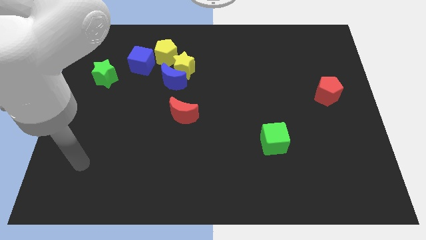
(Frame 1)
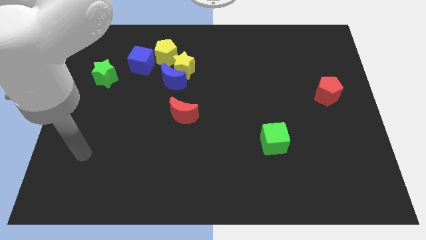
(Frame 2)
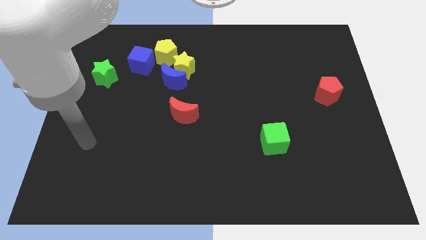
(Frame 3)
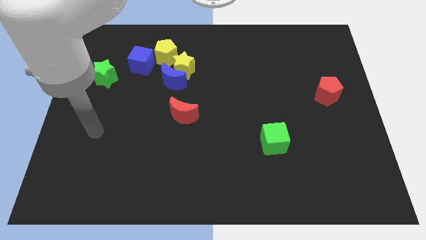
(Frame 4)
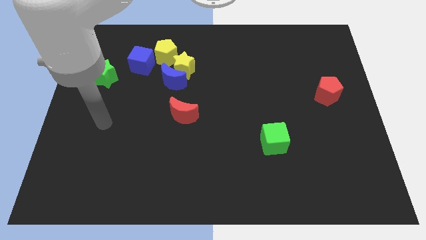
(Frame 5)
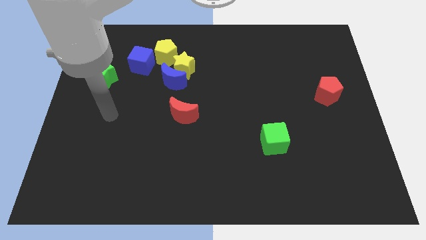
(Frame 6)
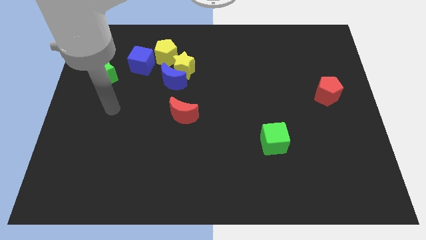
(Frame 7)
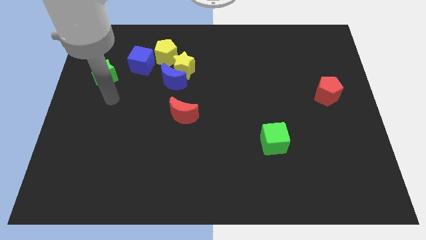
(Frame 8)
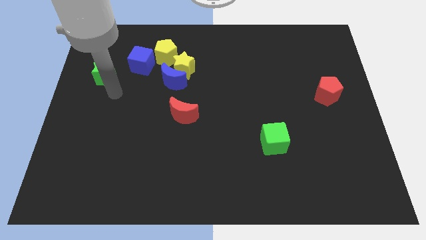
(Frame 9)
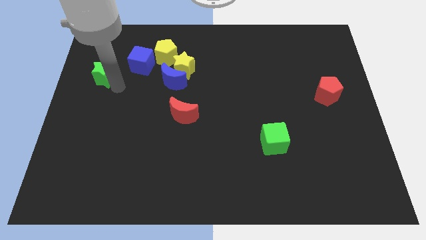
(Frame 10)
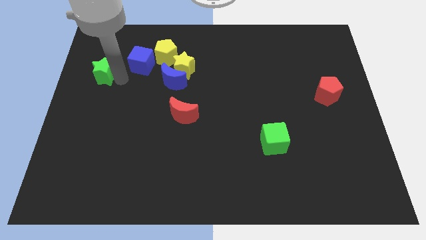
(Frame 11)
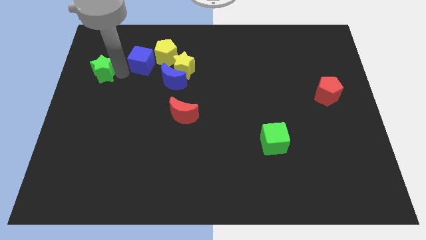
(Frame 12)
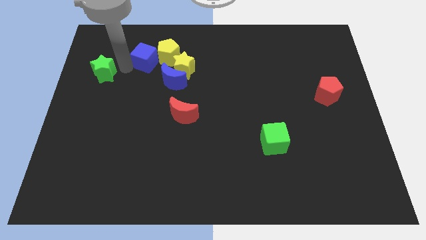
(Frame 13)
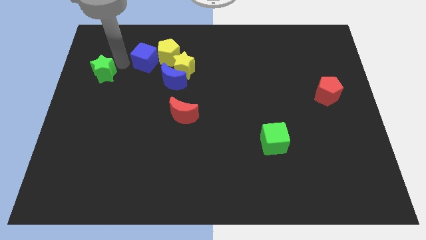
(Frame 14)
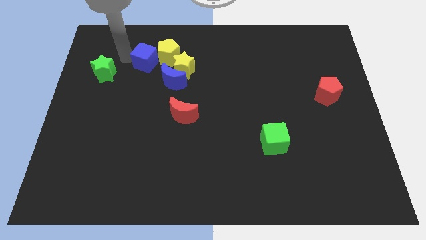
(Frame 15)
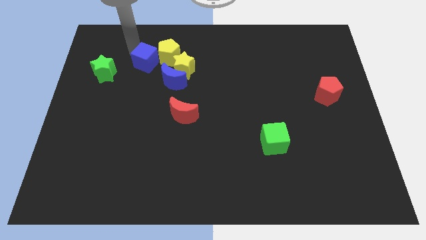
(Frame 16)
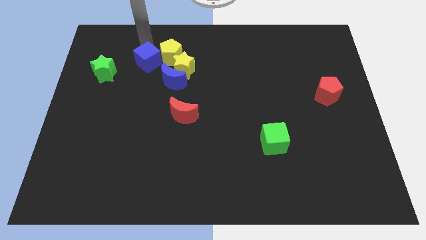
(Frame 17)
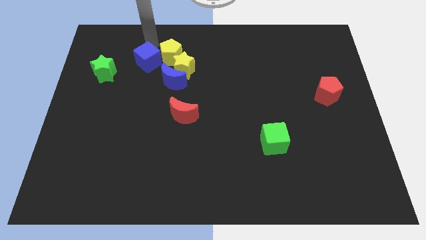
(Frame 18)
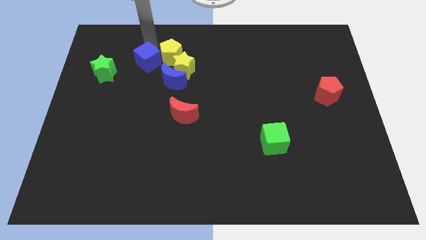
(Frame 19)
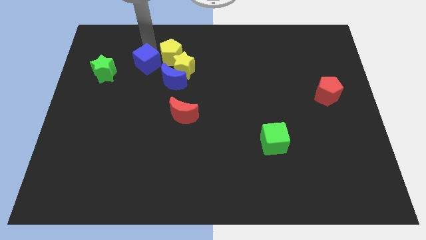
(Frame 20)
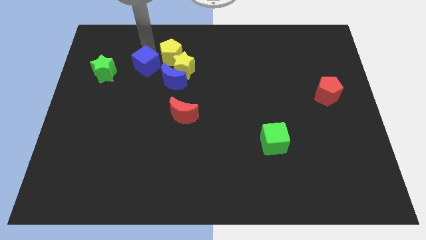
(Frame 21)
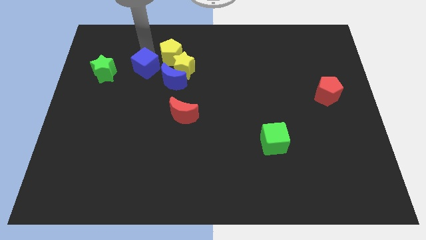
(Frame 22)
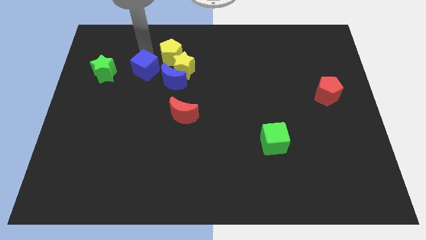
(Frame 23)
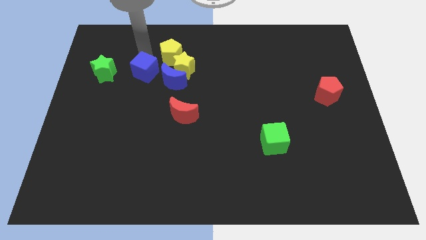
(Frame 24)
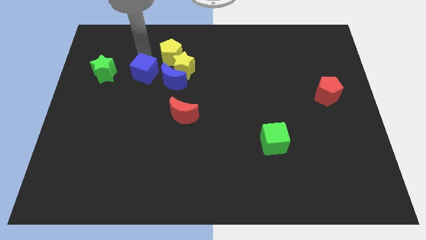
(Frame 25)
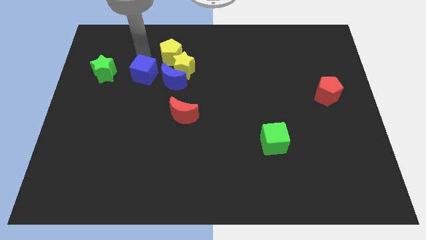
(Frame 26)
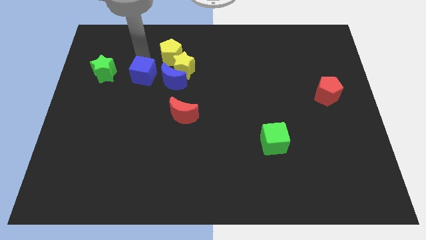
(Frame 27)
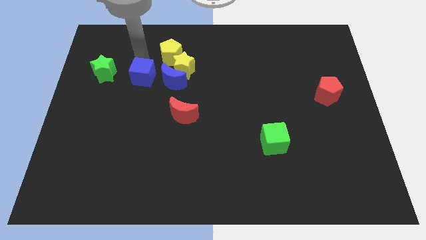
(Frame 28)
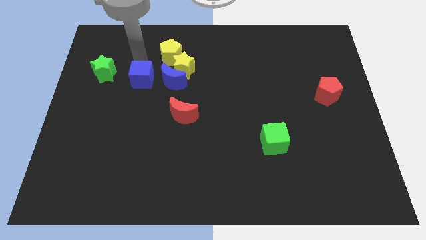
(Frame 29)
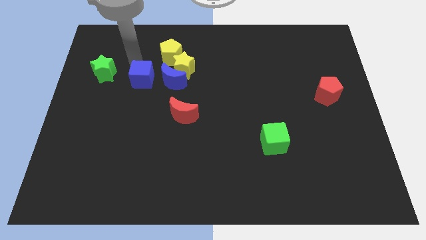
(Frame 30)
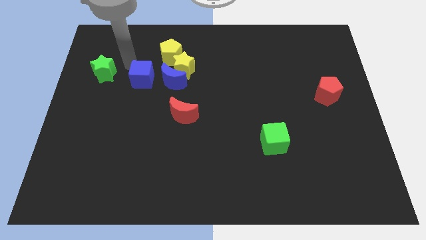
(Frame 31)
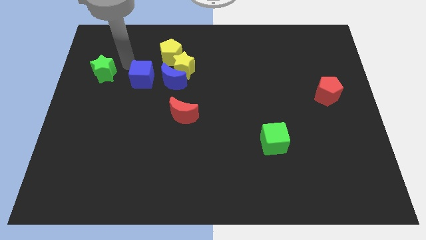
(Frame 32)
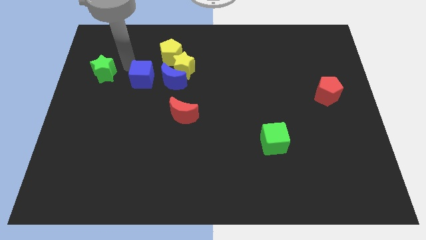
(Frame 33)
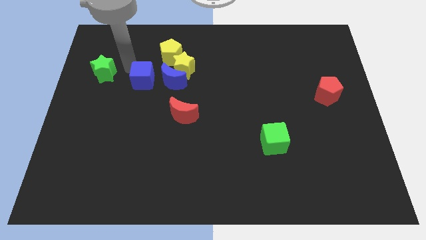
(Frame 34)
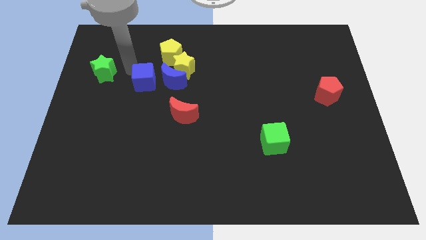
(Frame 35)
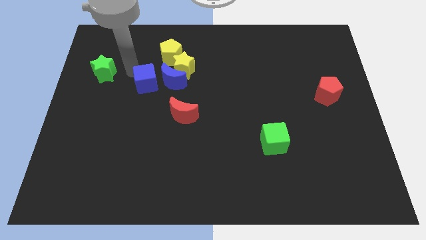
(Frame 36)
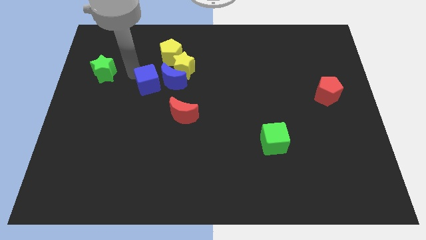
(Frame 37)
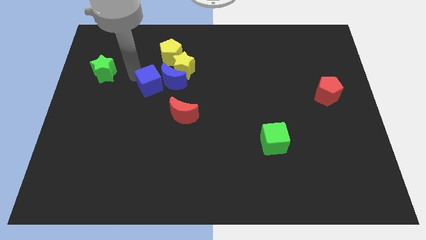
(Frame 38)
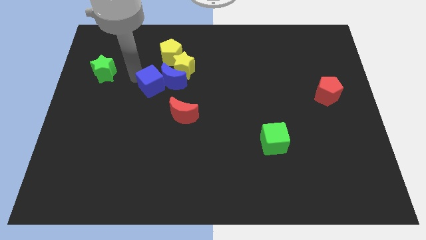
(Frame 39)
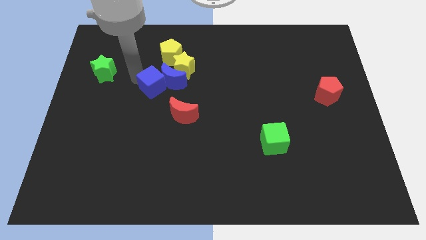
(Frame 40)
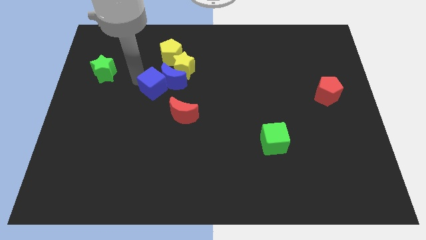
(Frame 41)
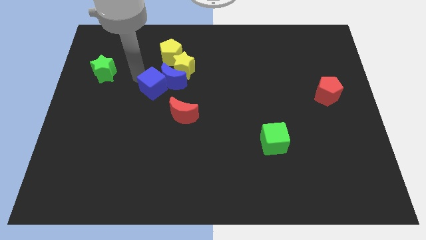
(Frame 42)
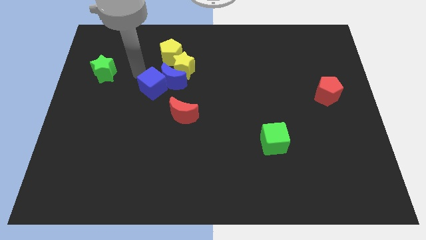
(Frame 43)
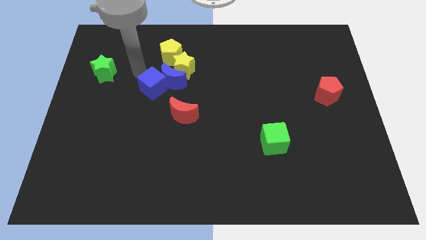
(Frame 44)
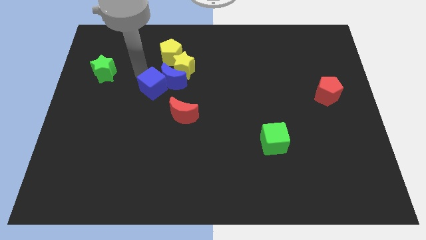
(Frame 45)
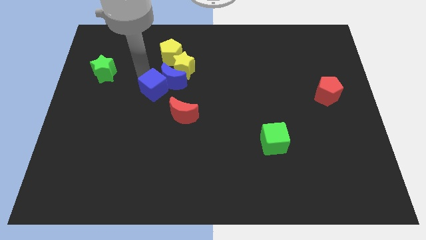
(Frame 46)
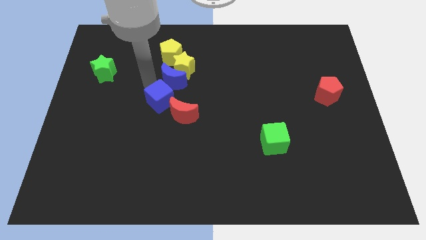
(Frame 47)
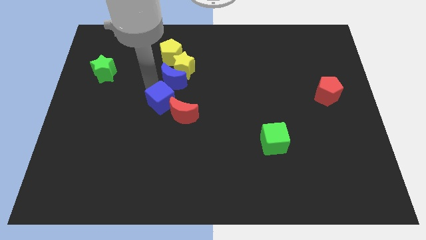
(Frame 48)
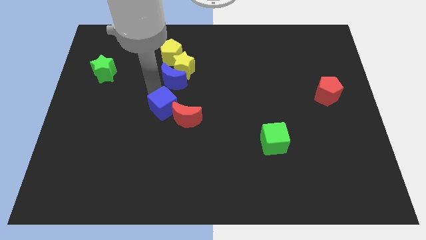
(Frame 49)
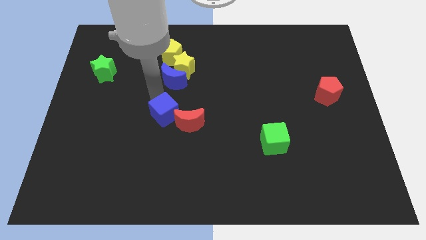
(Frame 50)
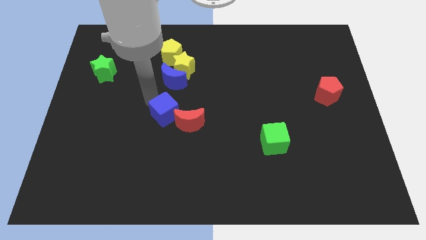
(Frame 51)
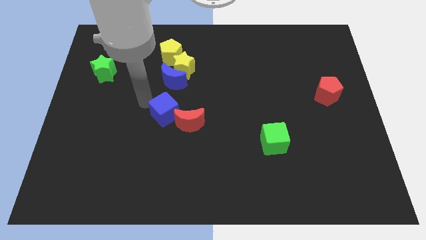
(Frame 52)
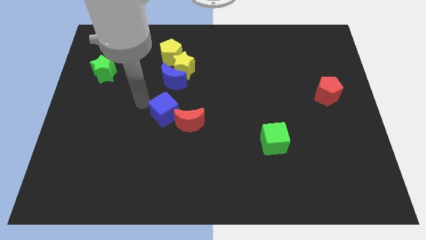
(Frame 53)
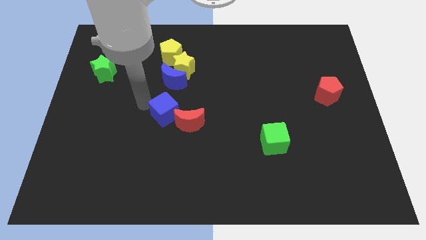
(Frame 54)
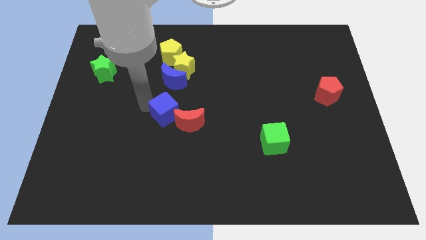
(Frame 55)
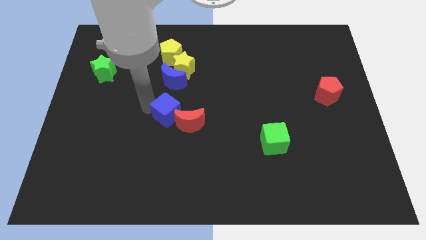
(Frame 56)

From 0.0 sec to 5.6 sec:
slide the blue cube to the red moon

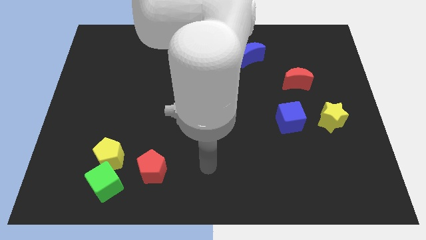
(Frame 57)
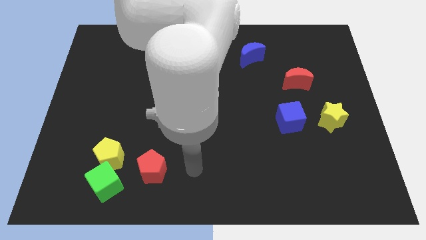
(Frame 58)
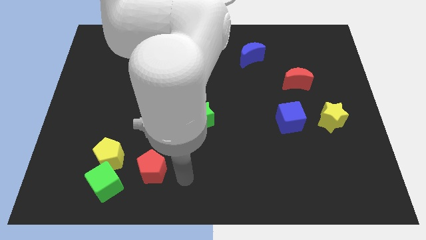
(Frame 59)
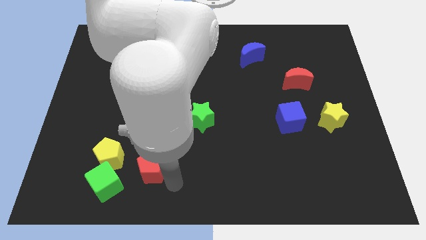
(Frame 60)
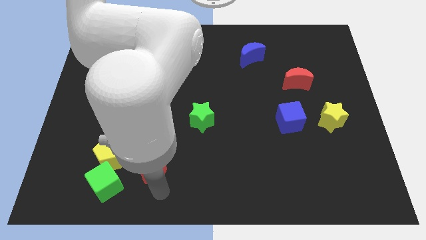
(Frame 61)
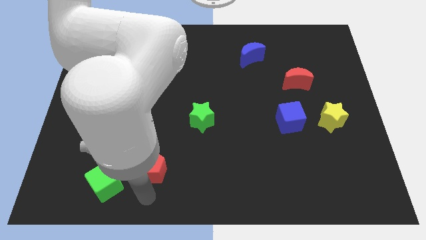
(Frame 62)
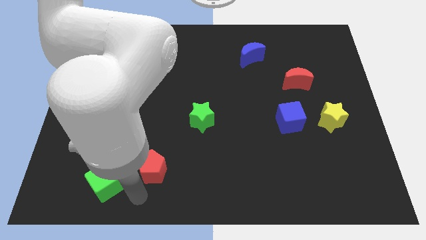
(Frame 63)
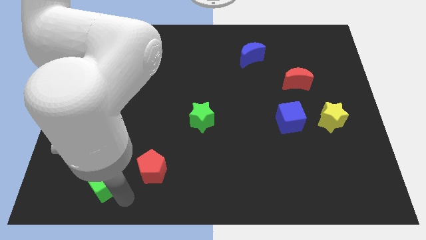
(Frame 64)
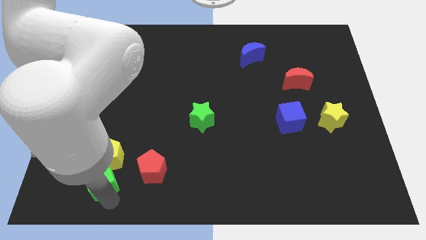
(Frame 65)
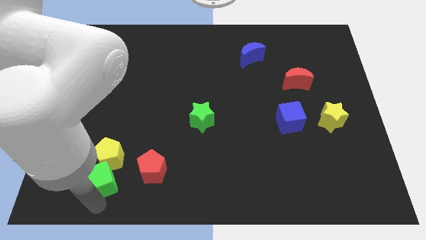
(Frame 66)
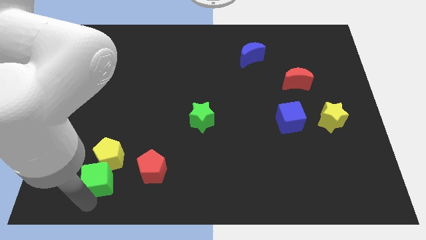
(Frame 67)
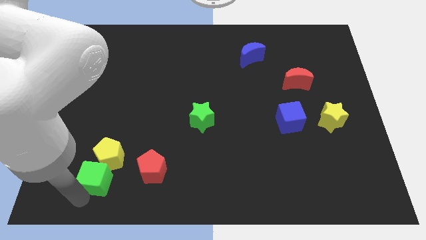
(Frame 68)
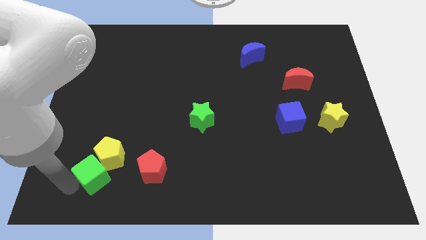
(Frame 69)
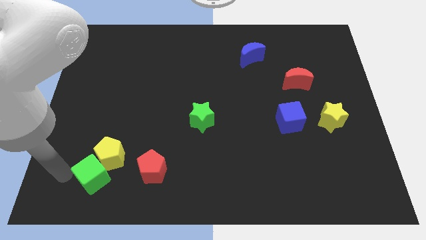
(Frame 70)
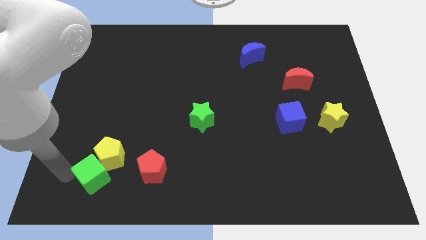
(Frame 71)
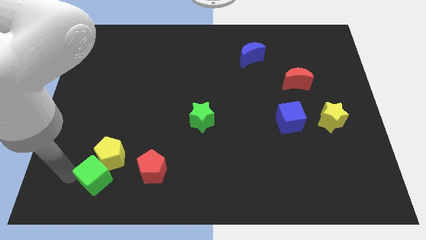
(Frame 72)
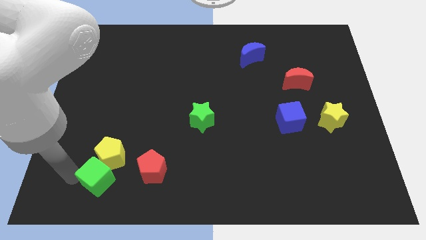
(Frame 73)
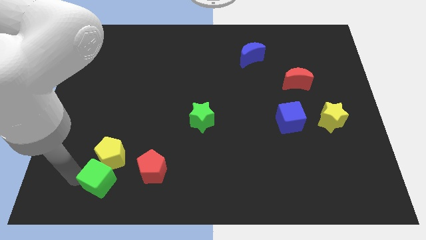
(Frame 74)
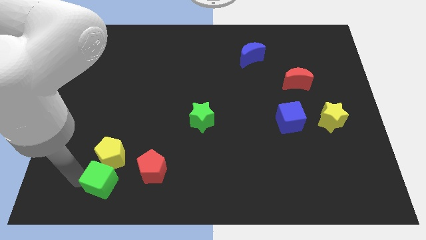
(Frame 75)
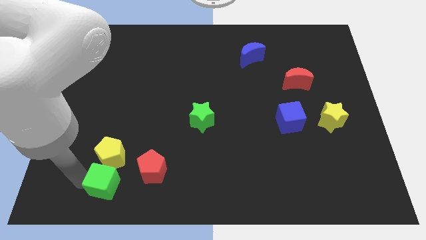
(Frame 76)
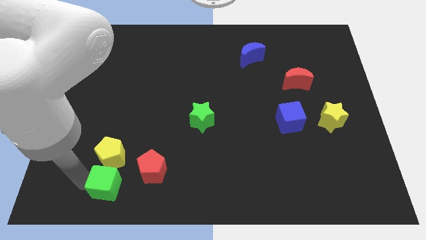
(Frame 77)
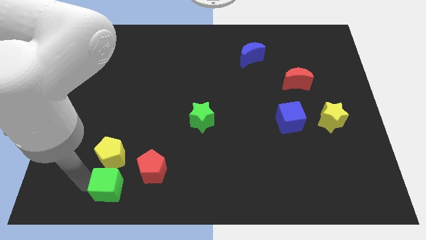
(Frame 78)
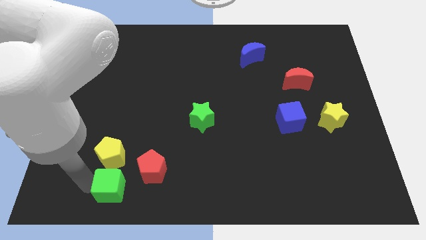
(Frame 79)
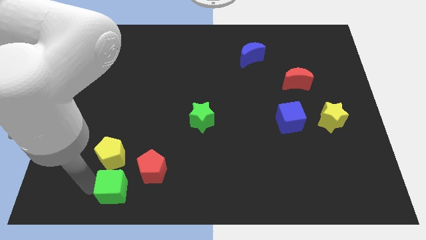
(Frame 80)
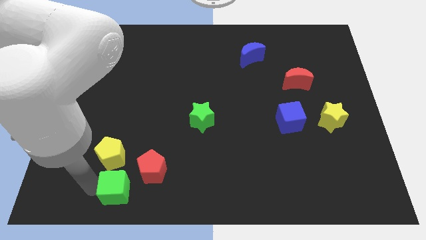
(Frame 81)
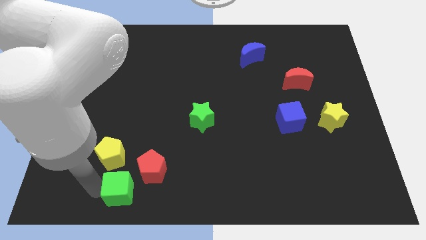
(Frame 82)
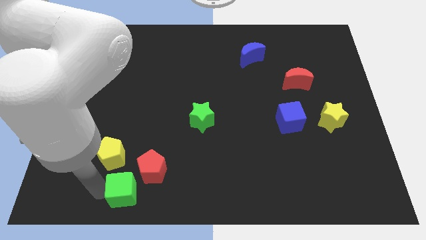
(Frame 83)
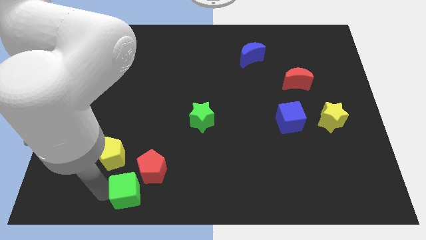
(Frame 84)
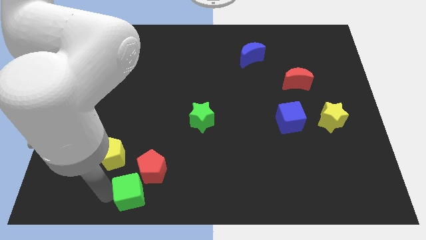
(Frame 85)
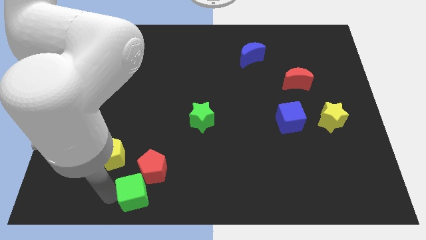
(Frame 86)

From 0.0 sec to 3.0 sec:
slide the green cube close to the red pentagon
